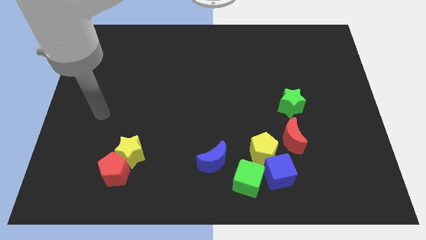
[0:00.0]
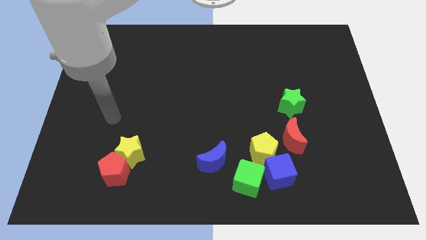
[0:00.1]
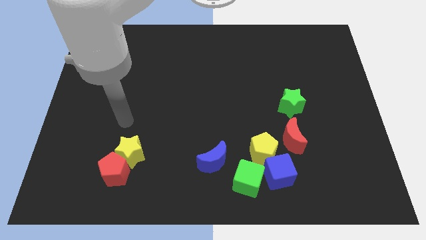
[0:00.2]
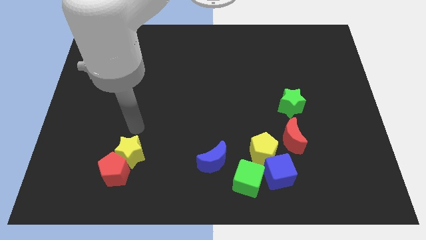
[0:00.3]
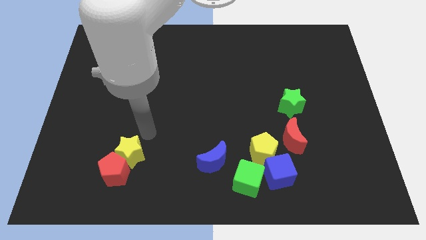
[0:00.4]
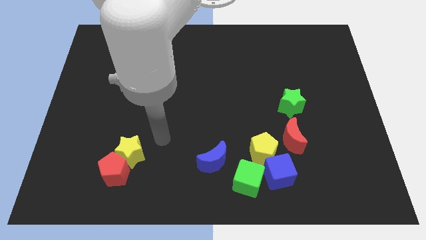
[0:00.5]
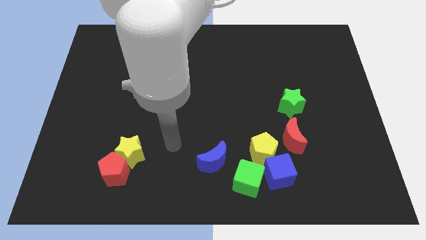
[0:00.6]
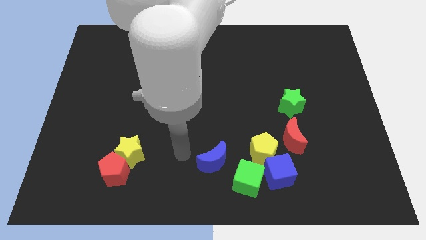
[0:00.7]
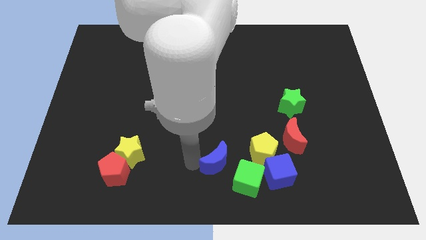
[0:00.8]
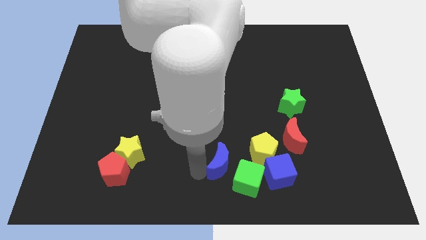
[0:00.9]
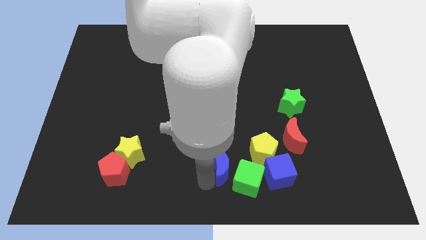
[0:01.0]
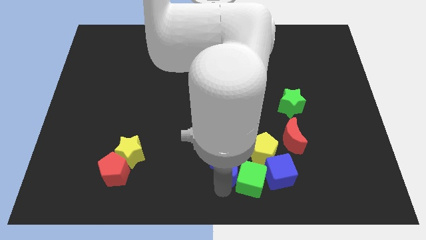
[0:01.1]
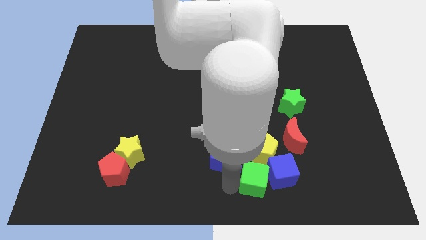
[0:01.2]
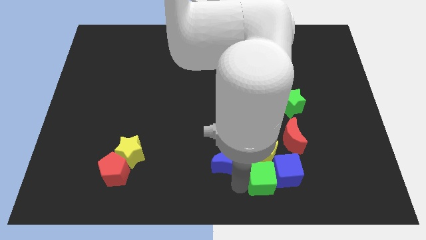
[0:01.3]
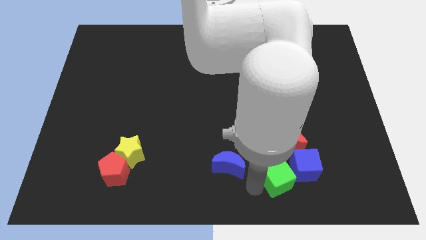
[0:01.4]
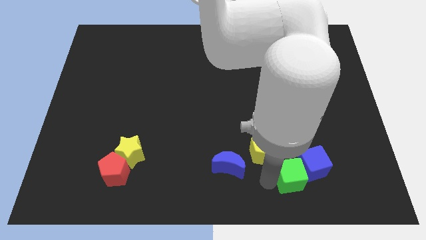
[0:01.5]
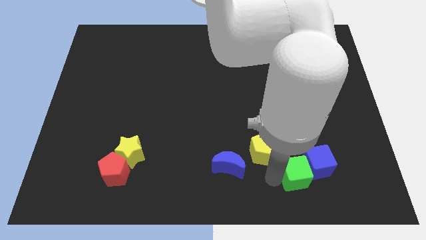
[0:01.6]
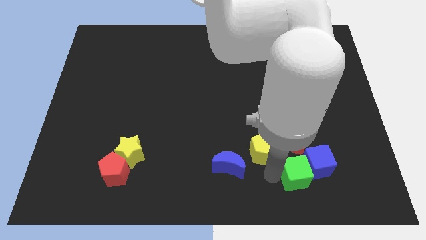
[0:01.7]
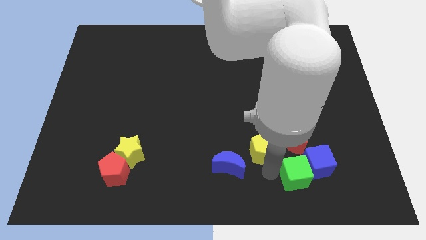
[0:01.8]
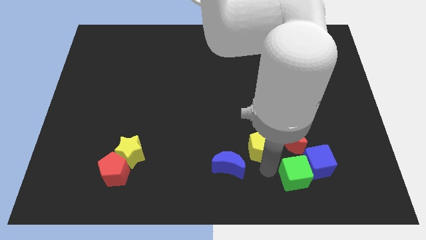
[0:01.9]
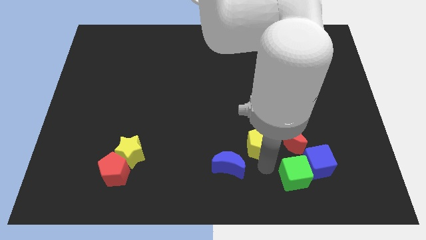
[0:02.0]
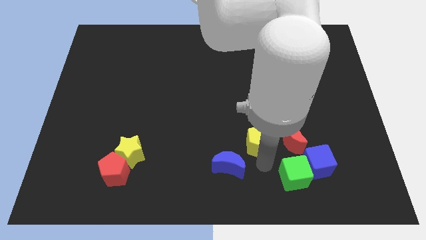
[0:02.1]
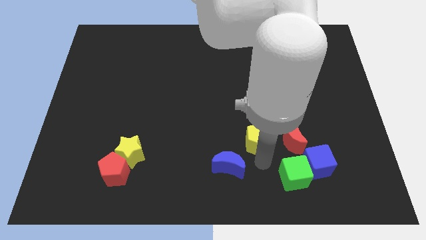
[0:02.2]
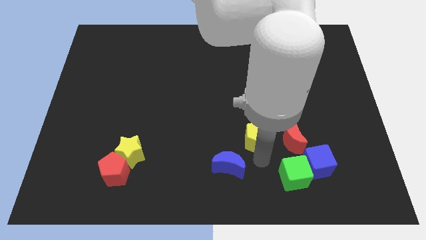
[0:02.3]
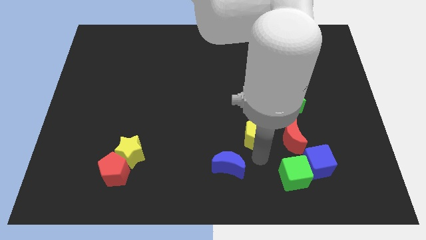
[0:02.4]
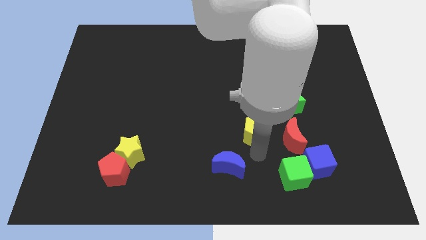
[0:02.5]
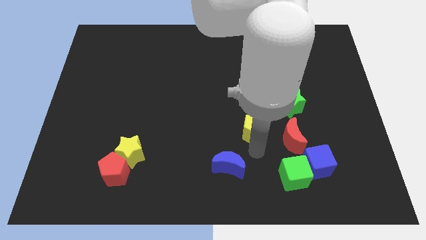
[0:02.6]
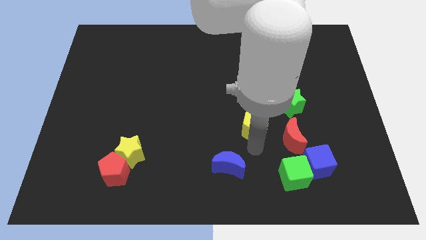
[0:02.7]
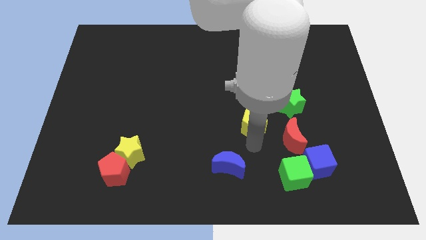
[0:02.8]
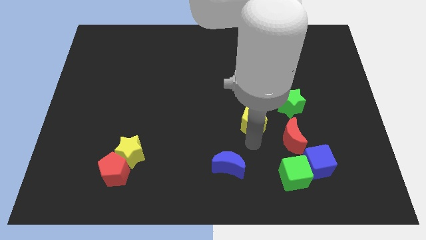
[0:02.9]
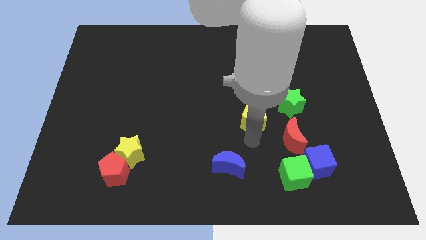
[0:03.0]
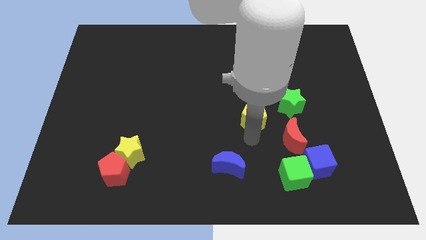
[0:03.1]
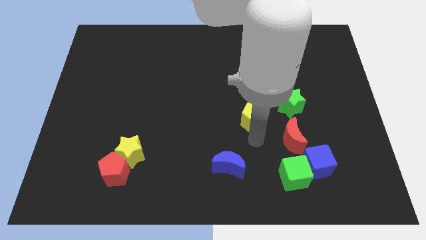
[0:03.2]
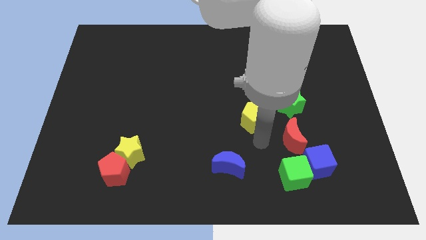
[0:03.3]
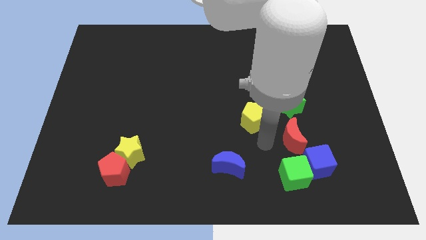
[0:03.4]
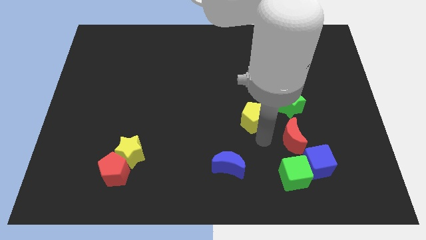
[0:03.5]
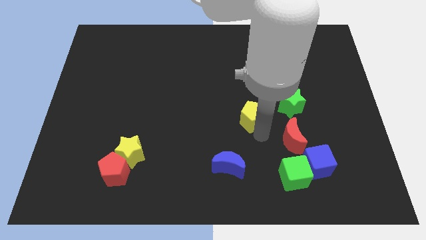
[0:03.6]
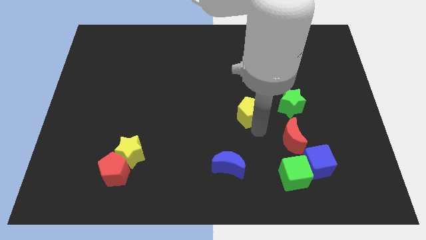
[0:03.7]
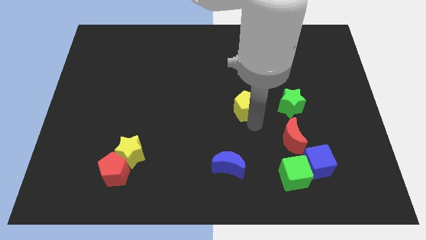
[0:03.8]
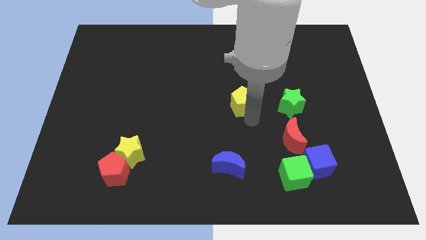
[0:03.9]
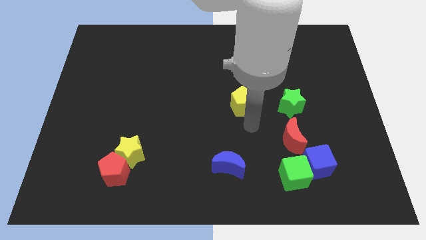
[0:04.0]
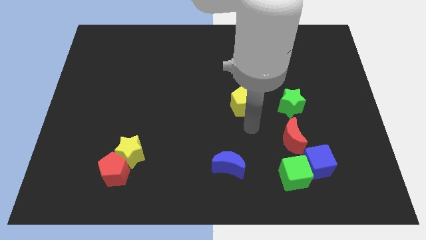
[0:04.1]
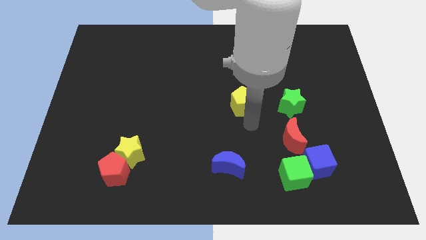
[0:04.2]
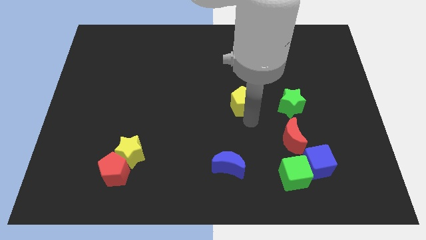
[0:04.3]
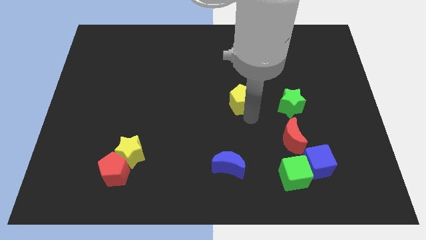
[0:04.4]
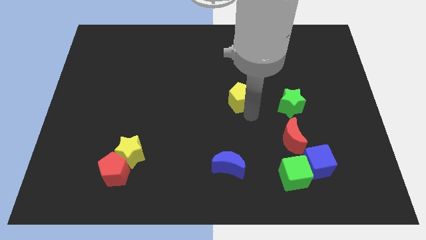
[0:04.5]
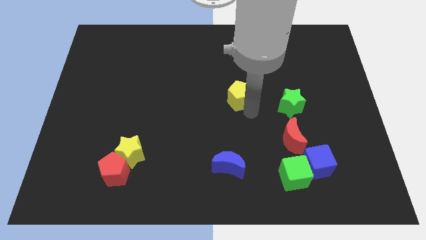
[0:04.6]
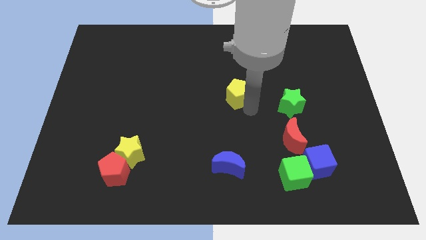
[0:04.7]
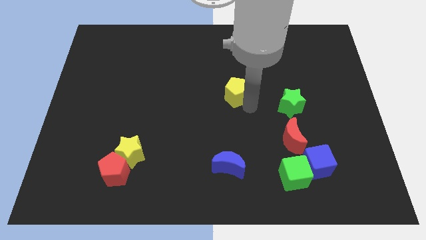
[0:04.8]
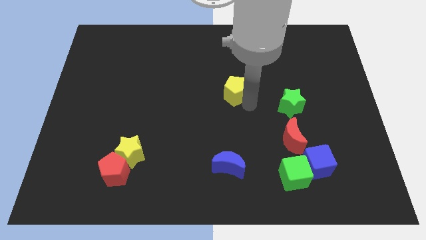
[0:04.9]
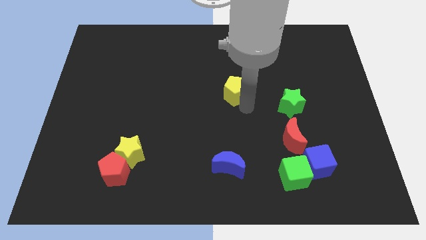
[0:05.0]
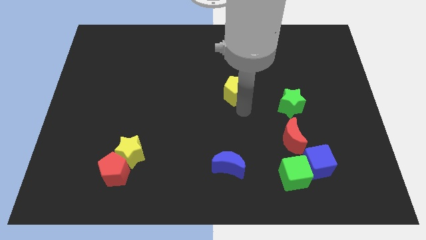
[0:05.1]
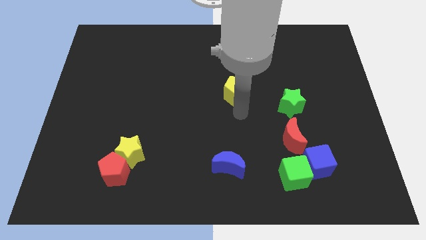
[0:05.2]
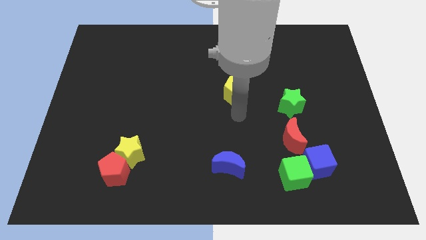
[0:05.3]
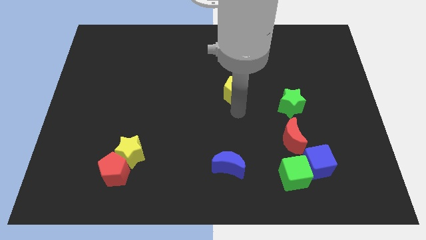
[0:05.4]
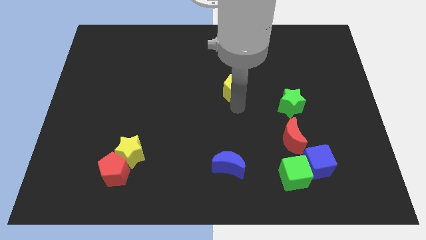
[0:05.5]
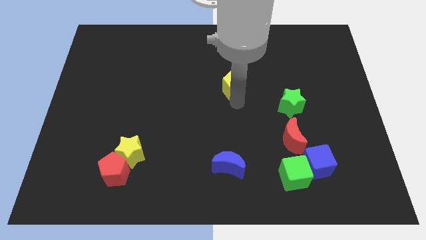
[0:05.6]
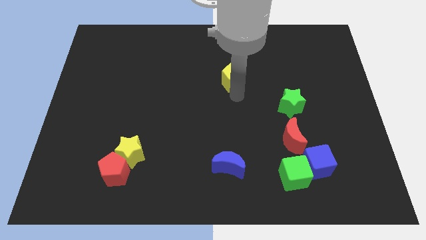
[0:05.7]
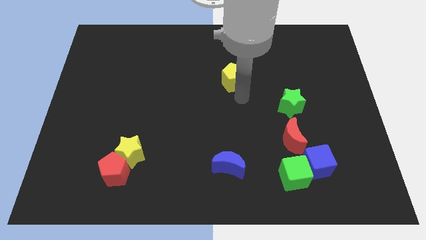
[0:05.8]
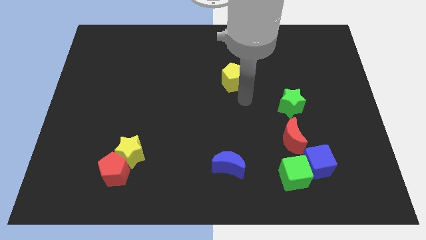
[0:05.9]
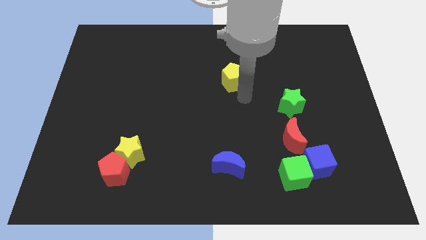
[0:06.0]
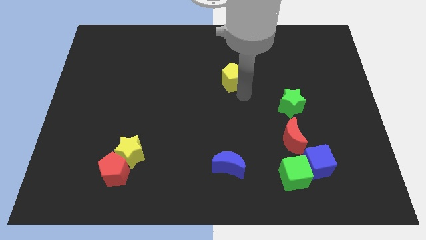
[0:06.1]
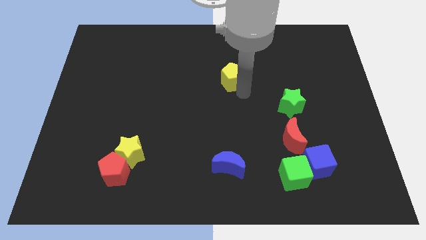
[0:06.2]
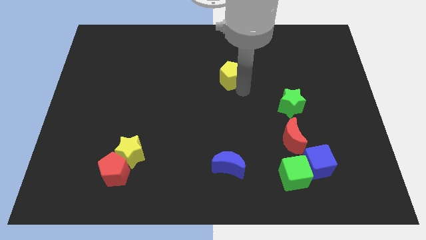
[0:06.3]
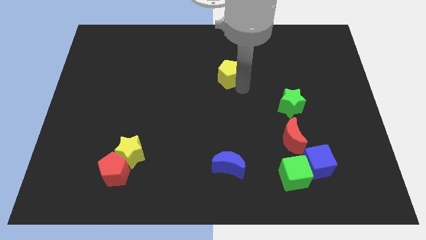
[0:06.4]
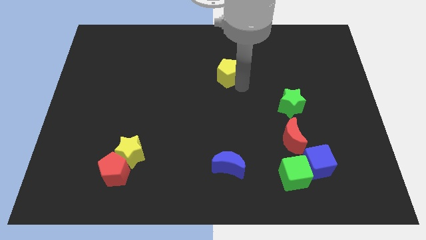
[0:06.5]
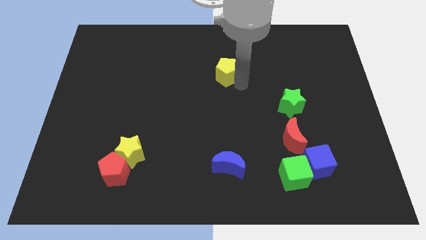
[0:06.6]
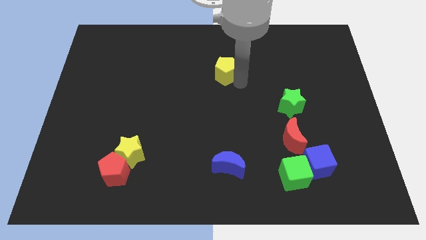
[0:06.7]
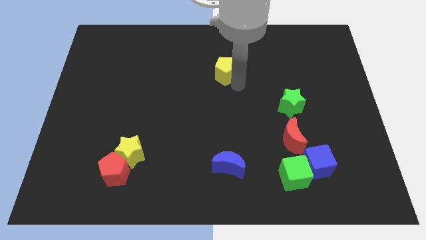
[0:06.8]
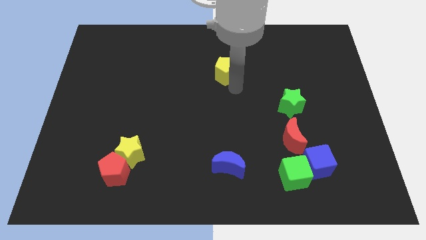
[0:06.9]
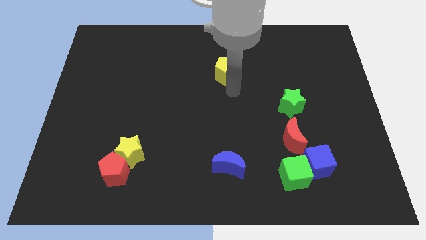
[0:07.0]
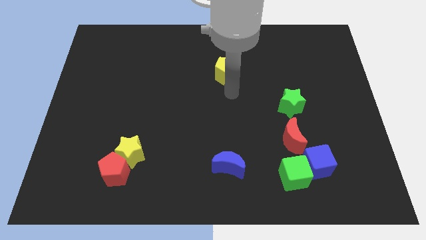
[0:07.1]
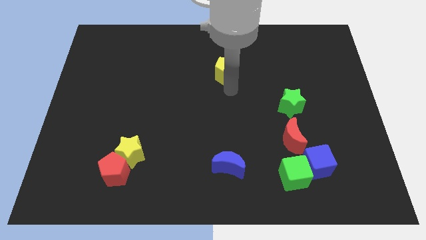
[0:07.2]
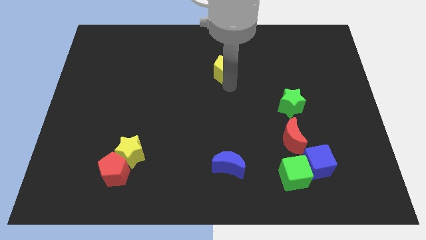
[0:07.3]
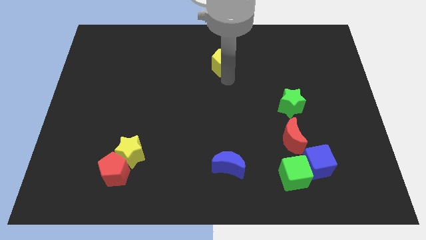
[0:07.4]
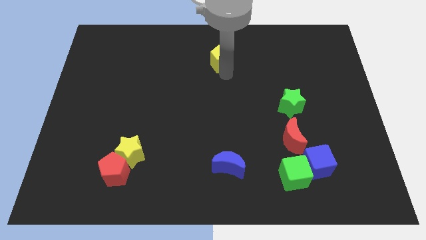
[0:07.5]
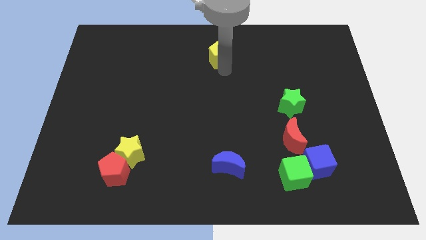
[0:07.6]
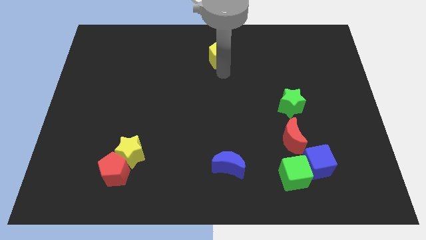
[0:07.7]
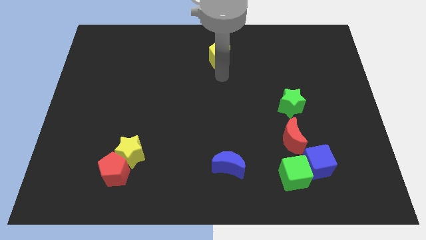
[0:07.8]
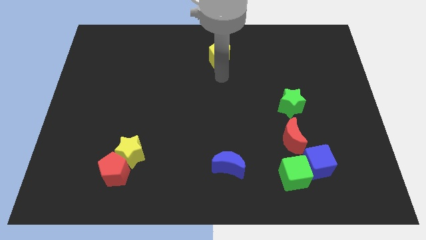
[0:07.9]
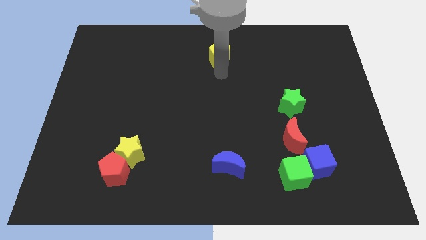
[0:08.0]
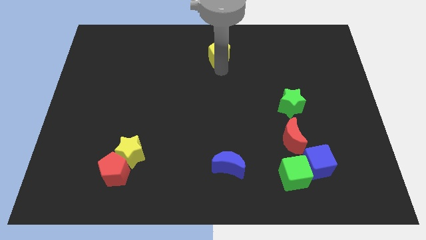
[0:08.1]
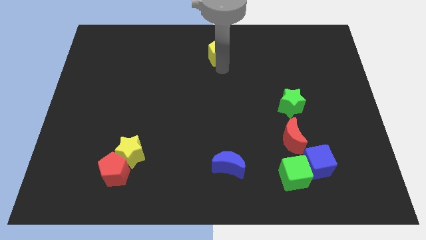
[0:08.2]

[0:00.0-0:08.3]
put the yellow pentagon to the towards your base
